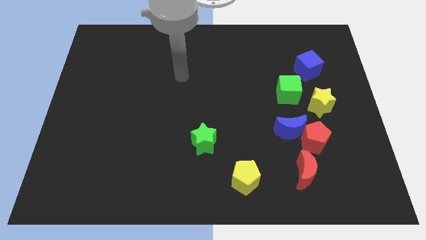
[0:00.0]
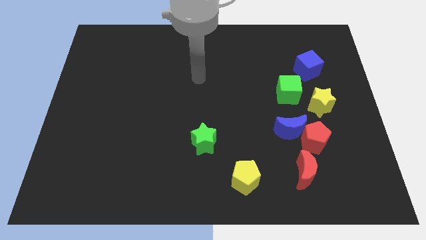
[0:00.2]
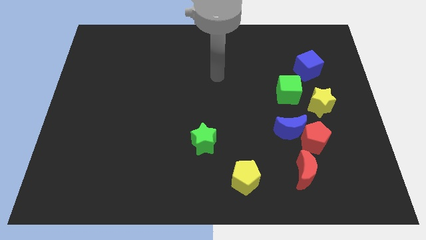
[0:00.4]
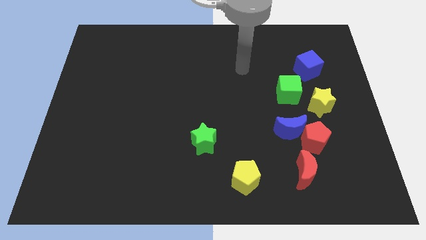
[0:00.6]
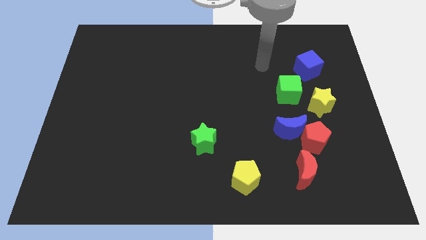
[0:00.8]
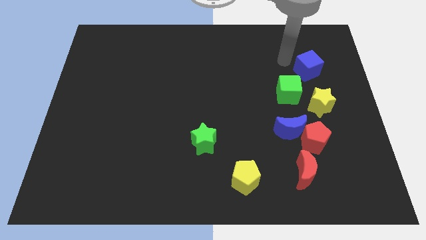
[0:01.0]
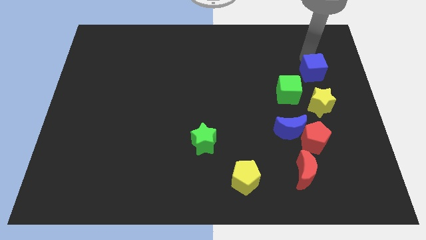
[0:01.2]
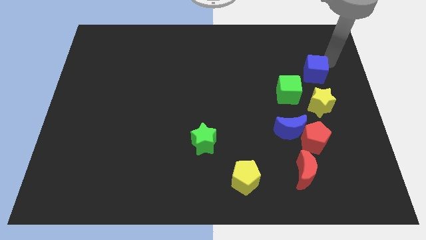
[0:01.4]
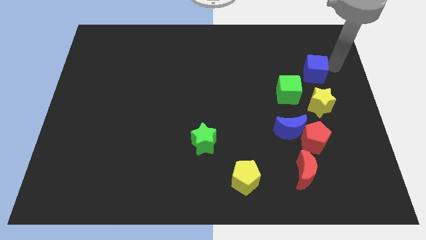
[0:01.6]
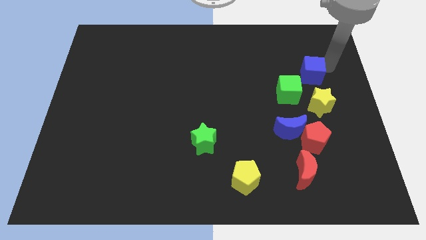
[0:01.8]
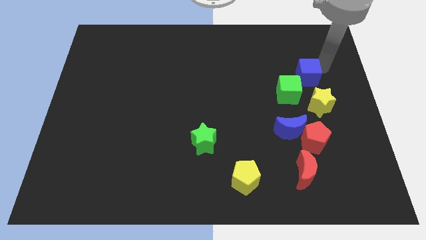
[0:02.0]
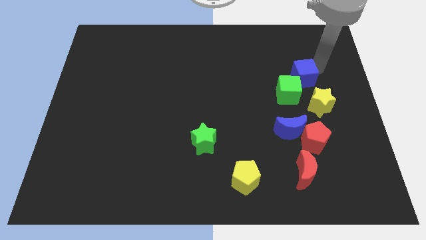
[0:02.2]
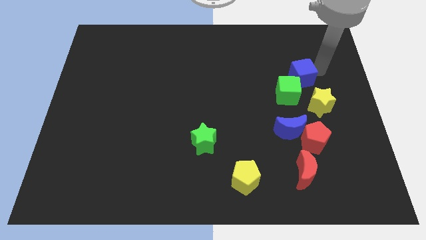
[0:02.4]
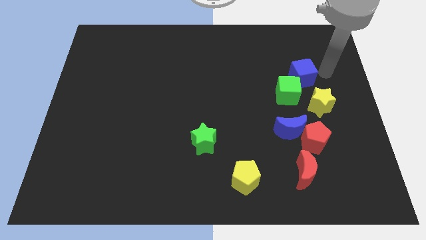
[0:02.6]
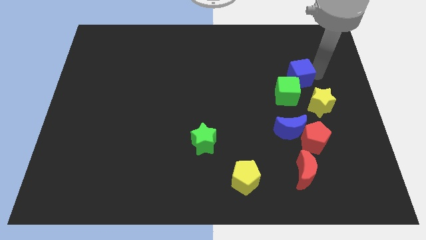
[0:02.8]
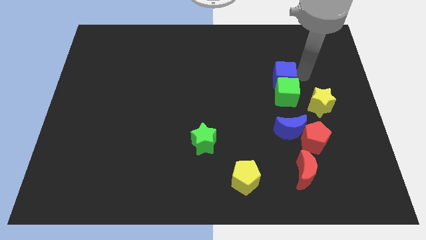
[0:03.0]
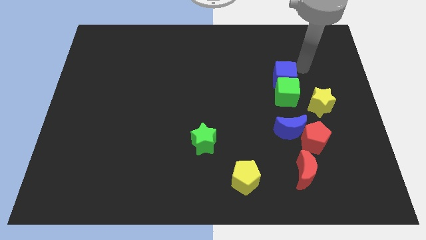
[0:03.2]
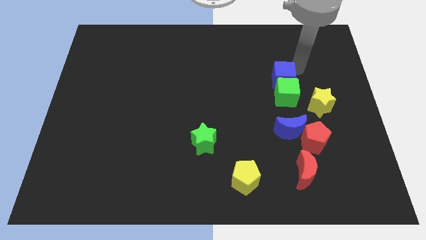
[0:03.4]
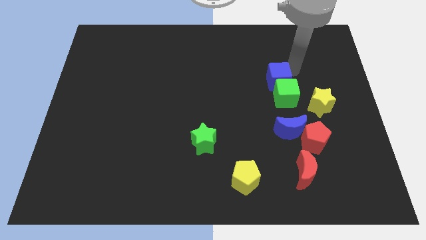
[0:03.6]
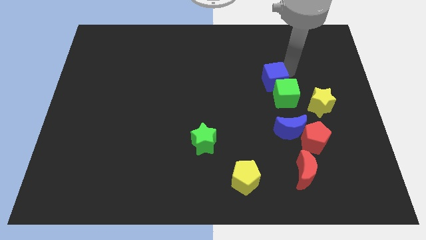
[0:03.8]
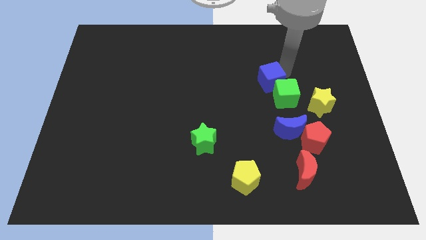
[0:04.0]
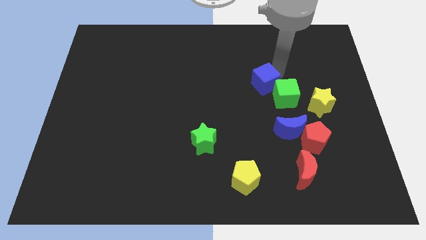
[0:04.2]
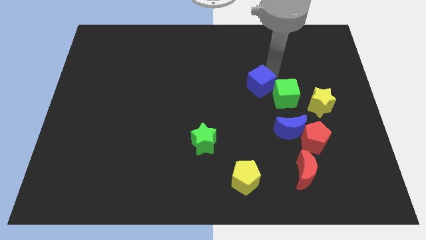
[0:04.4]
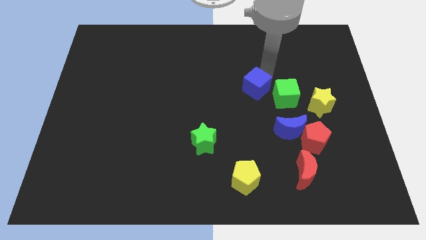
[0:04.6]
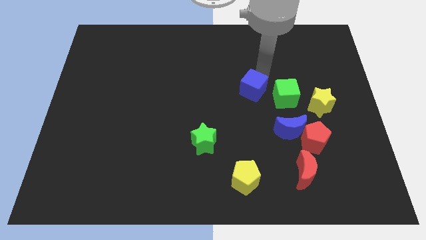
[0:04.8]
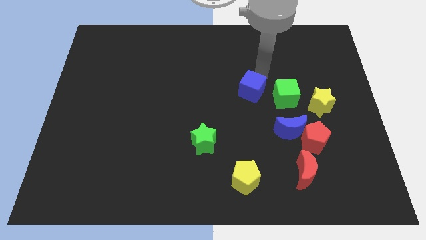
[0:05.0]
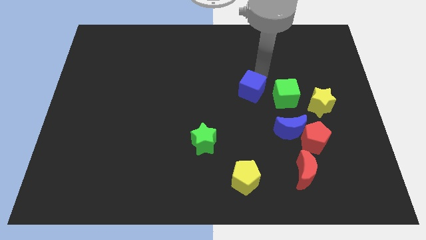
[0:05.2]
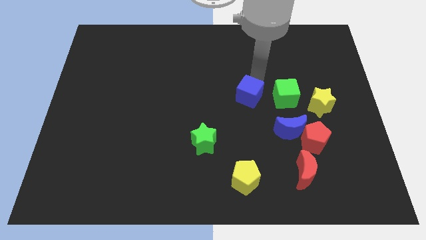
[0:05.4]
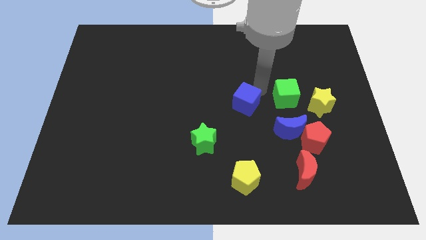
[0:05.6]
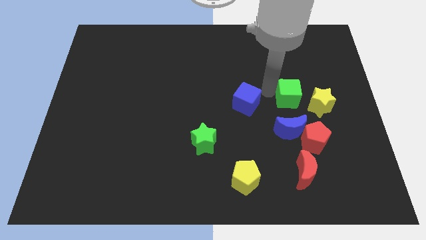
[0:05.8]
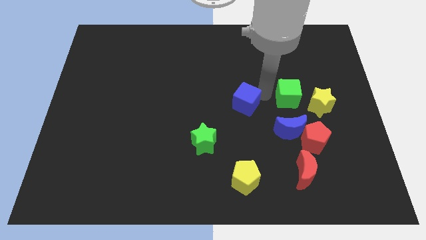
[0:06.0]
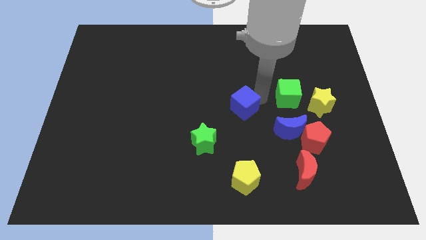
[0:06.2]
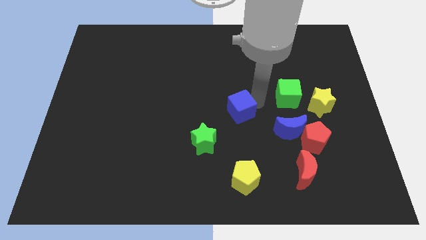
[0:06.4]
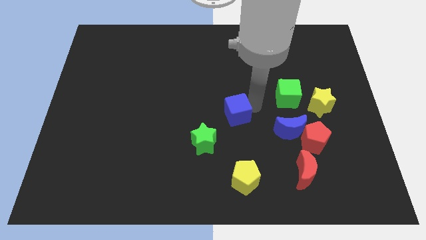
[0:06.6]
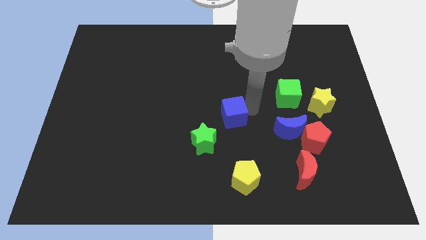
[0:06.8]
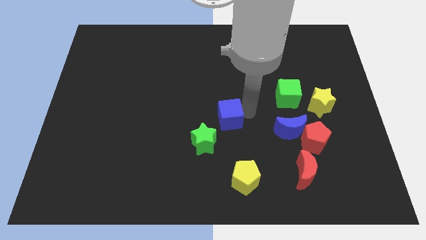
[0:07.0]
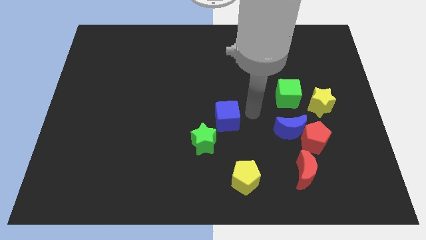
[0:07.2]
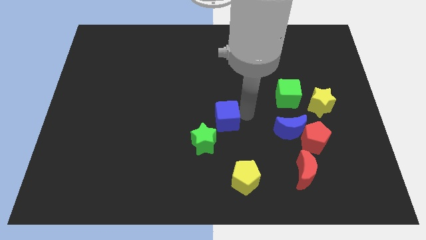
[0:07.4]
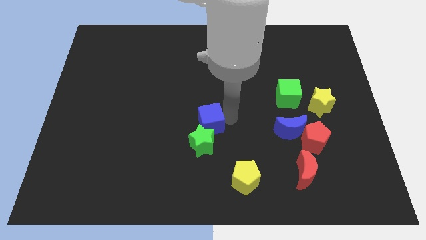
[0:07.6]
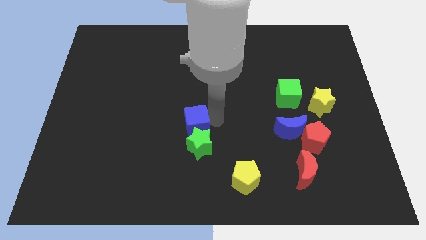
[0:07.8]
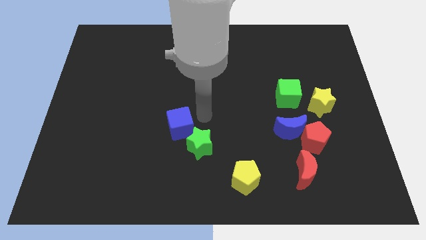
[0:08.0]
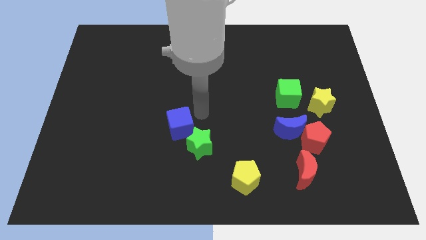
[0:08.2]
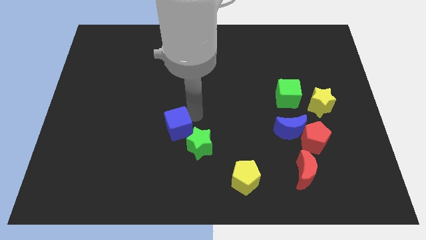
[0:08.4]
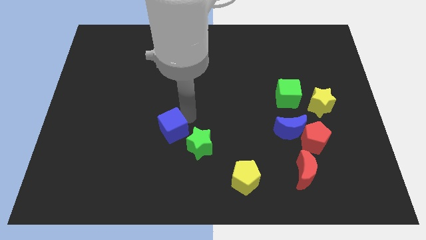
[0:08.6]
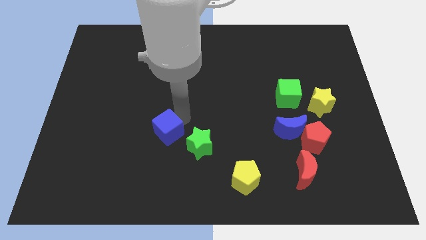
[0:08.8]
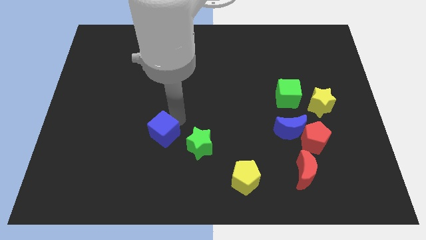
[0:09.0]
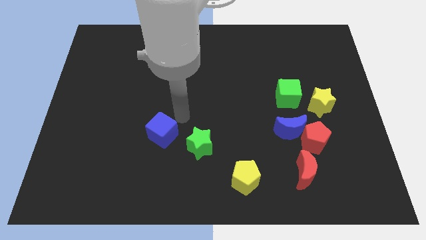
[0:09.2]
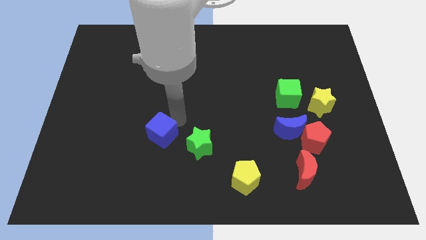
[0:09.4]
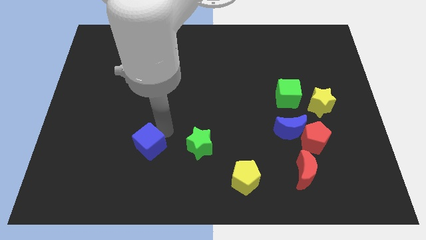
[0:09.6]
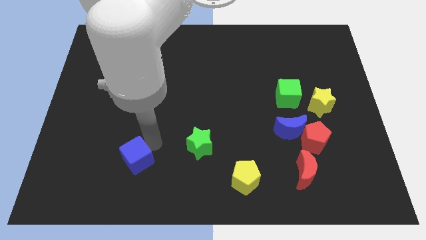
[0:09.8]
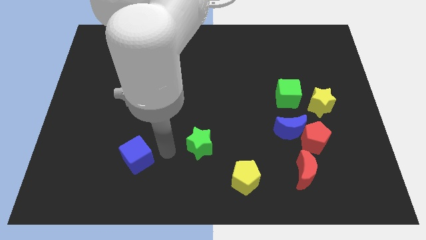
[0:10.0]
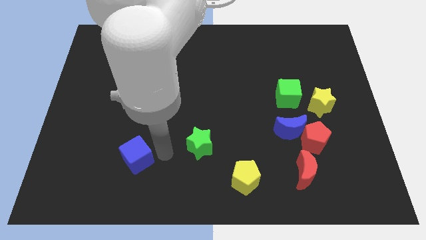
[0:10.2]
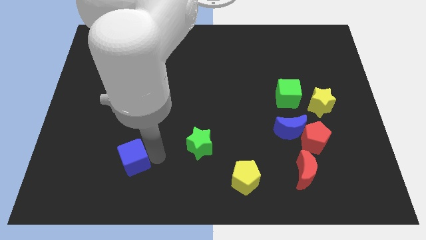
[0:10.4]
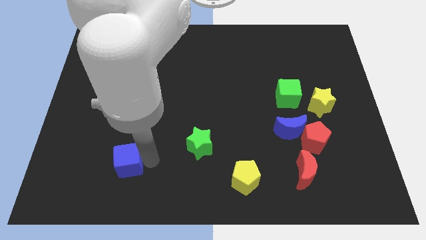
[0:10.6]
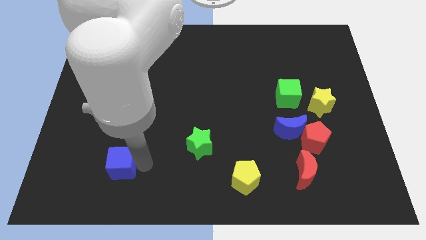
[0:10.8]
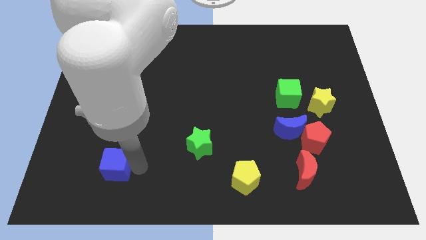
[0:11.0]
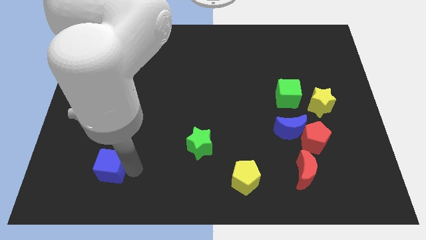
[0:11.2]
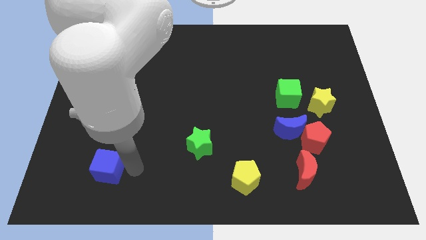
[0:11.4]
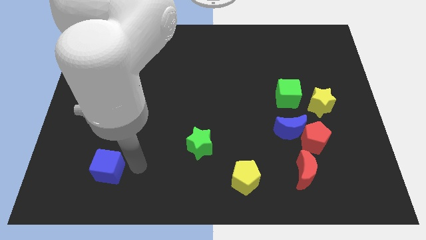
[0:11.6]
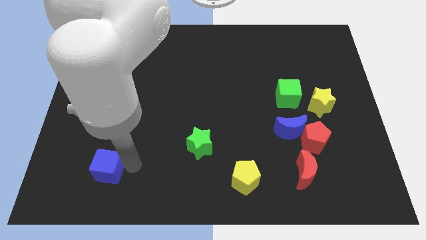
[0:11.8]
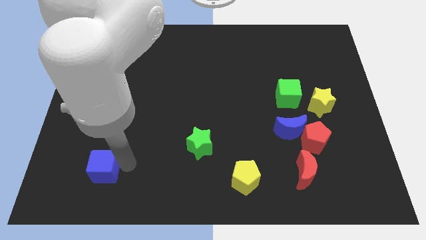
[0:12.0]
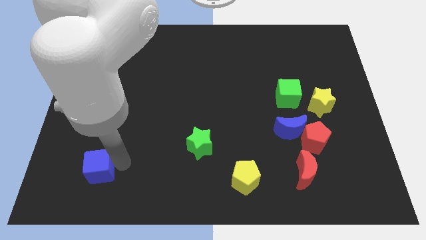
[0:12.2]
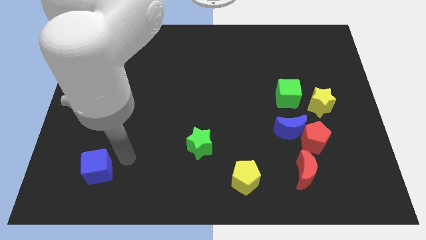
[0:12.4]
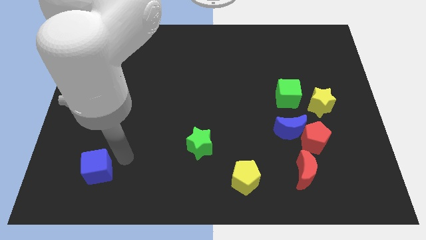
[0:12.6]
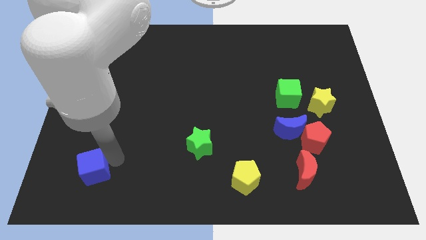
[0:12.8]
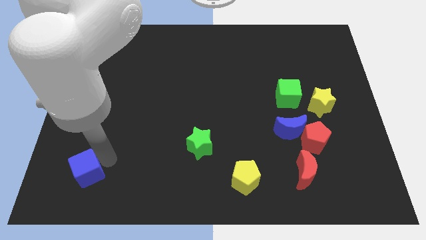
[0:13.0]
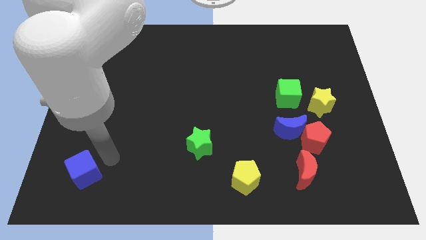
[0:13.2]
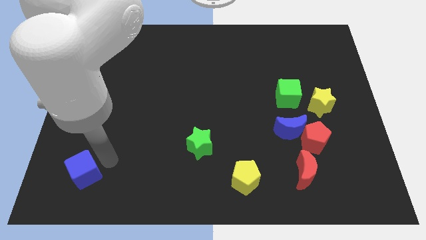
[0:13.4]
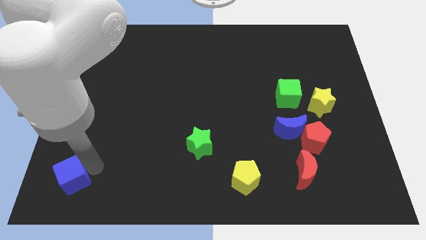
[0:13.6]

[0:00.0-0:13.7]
move the blue cube to the bottom left
